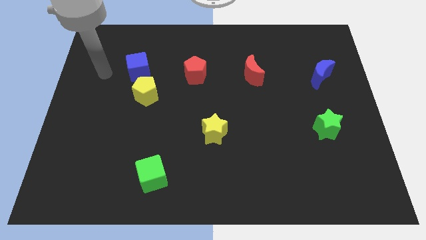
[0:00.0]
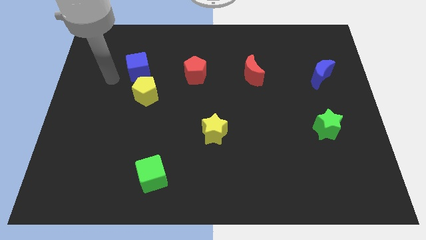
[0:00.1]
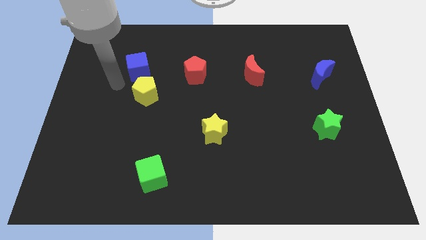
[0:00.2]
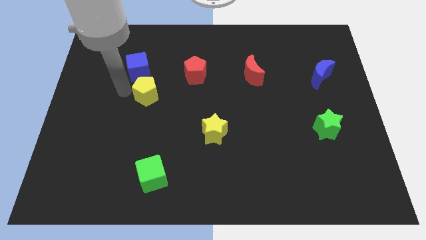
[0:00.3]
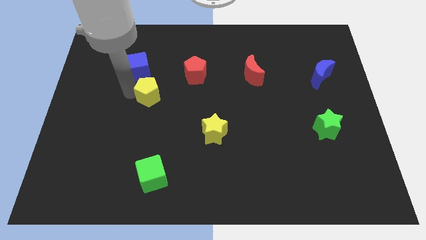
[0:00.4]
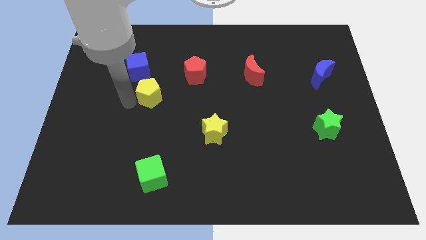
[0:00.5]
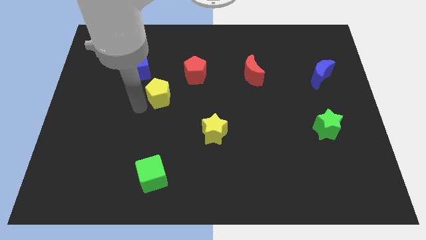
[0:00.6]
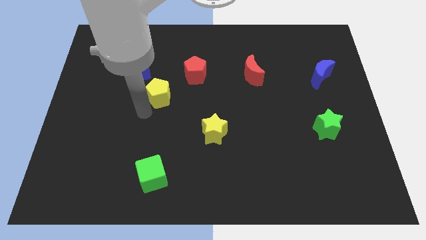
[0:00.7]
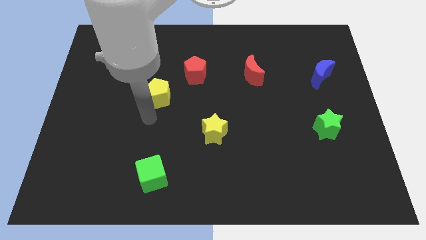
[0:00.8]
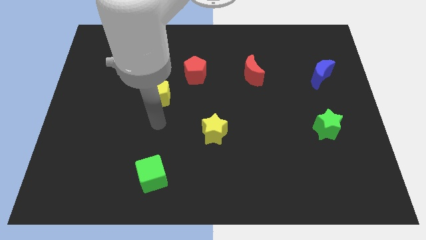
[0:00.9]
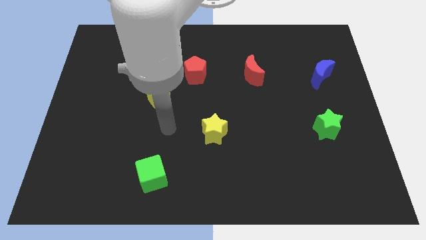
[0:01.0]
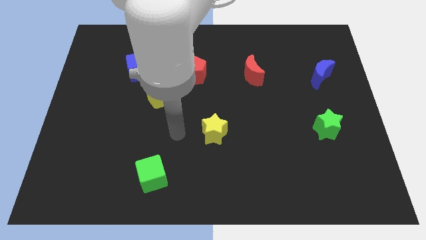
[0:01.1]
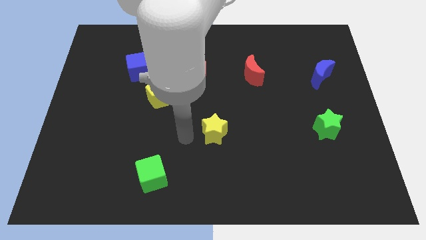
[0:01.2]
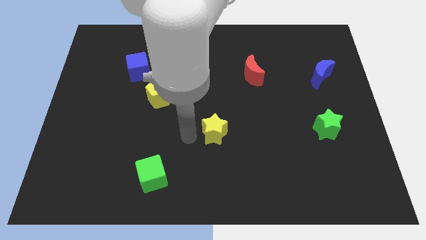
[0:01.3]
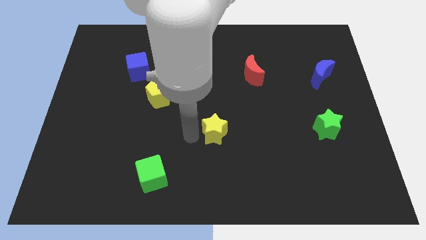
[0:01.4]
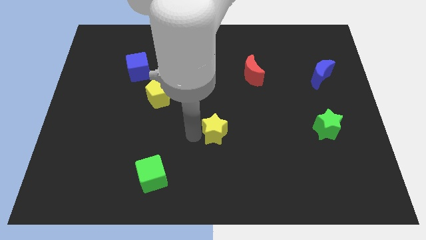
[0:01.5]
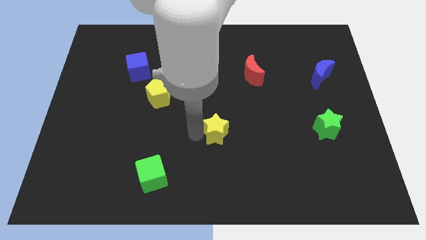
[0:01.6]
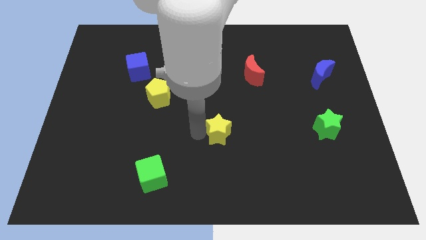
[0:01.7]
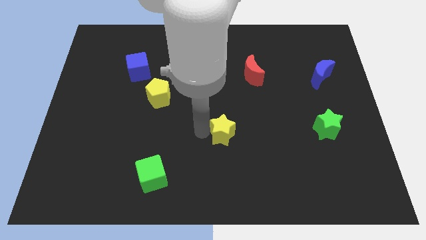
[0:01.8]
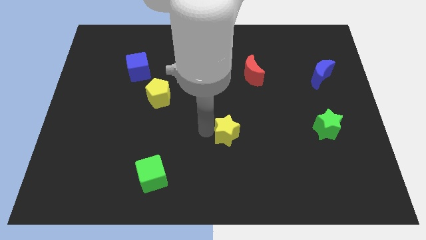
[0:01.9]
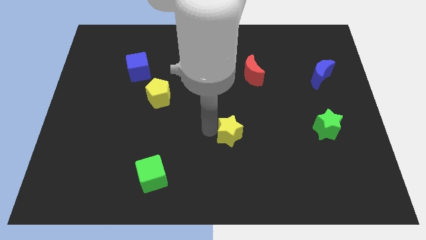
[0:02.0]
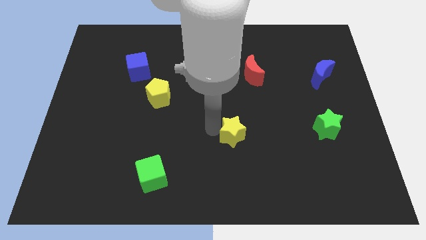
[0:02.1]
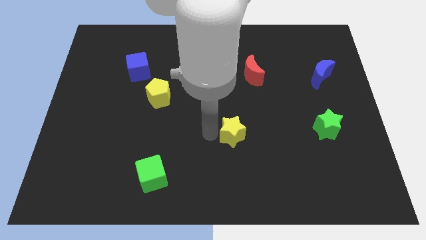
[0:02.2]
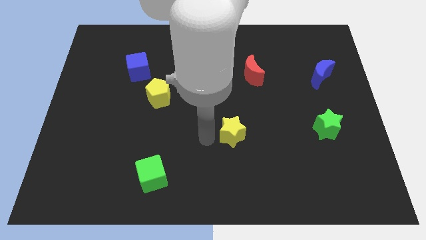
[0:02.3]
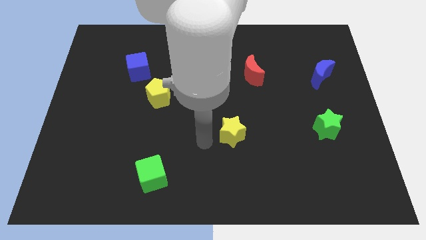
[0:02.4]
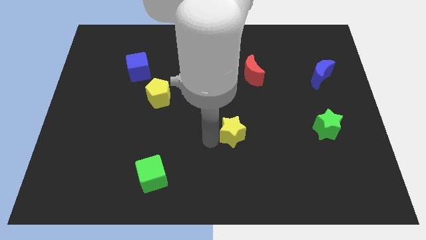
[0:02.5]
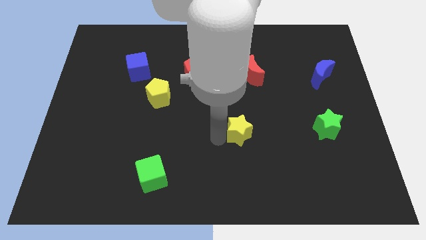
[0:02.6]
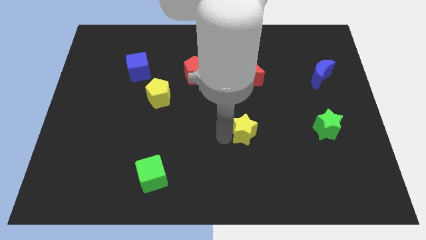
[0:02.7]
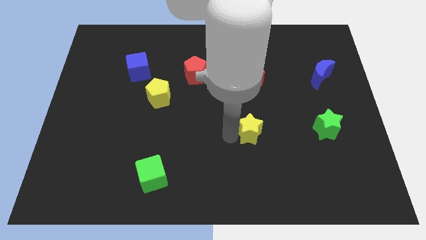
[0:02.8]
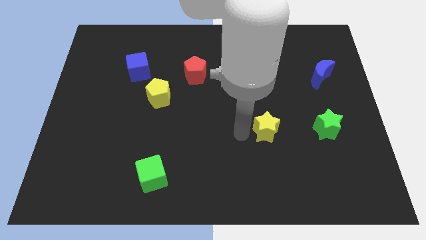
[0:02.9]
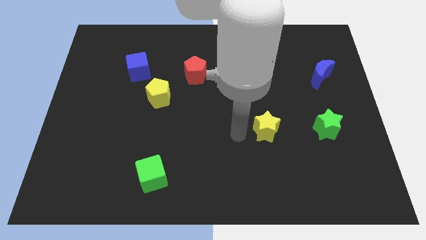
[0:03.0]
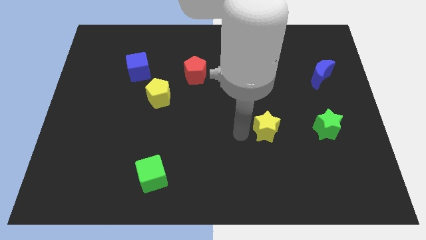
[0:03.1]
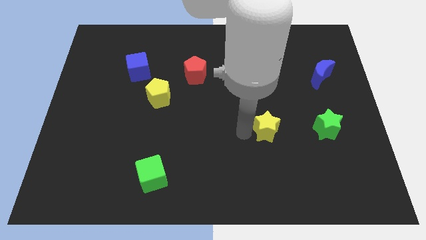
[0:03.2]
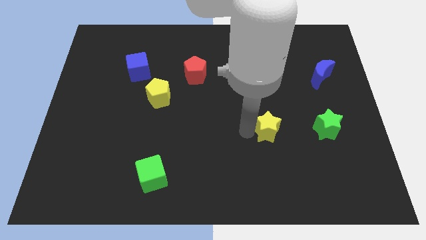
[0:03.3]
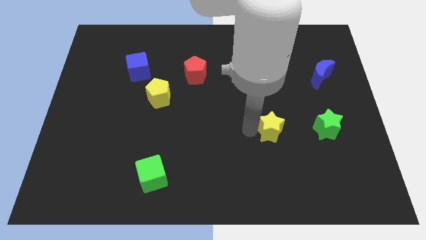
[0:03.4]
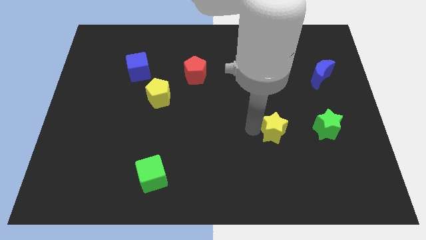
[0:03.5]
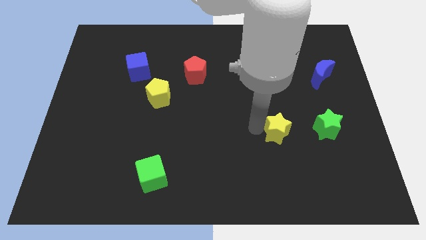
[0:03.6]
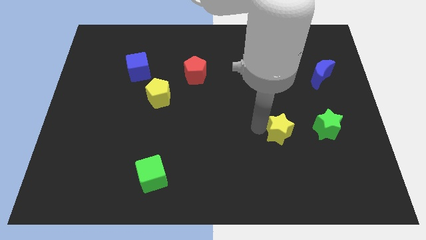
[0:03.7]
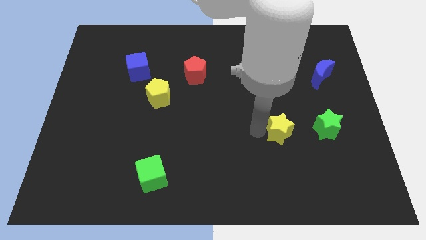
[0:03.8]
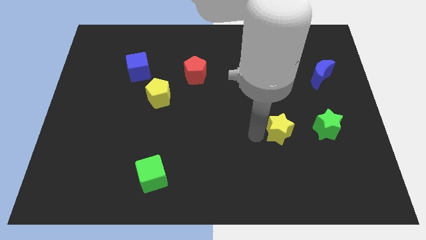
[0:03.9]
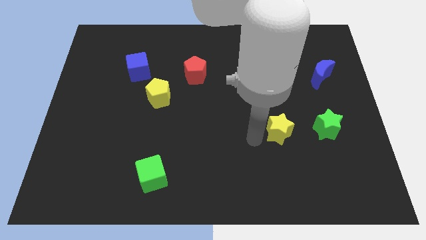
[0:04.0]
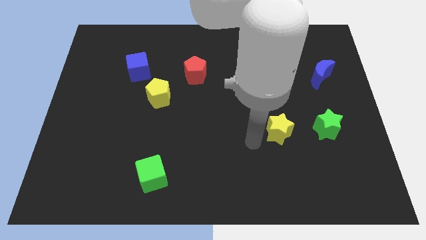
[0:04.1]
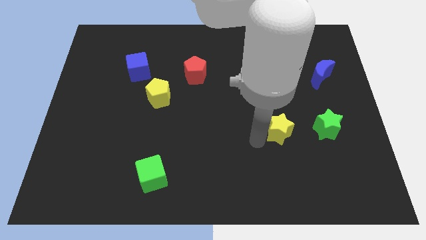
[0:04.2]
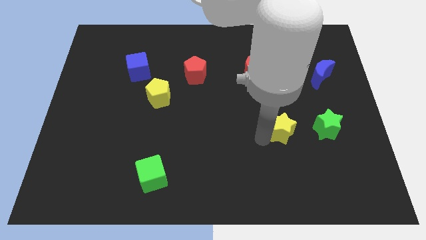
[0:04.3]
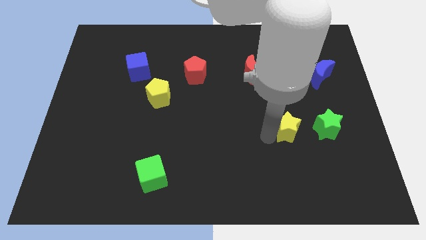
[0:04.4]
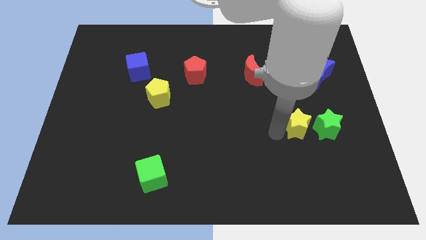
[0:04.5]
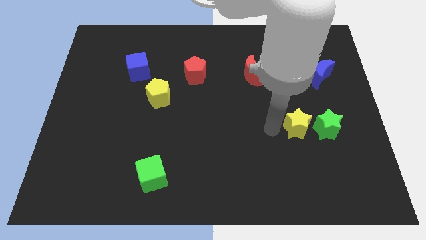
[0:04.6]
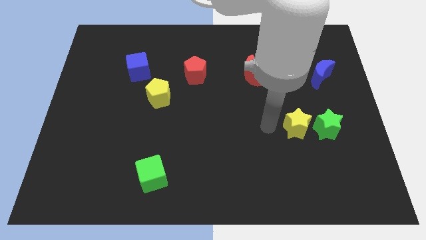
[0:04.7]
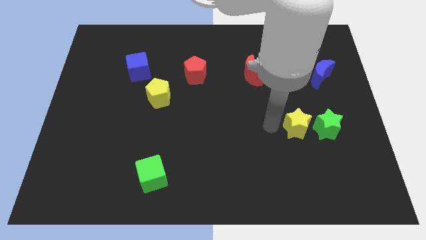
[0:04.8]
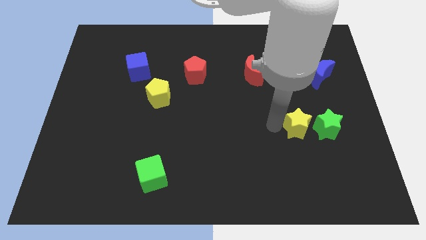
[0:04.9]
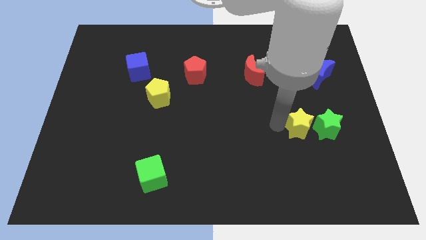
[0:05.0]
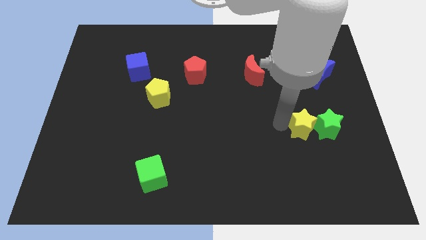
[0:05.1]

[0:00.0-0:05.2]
move the yellow star to the green star

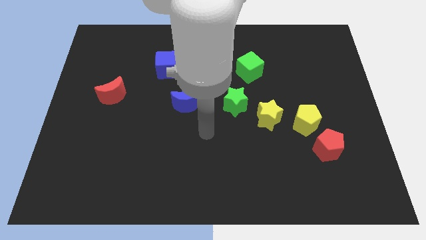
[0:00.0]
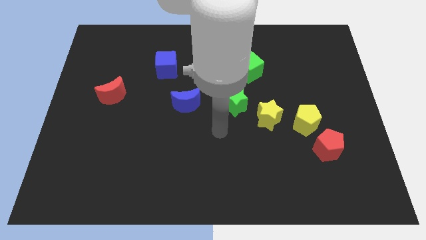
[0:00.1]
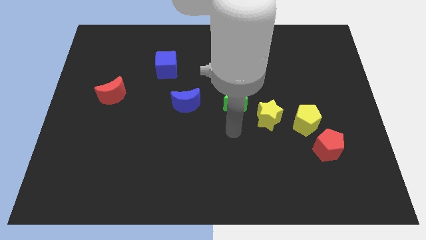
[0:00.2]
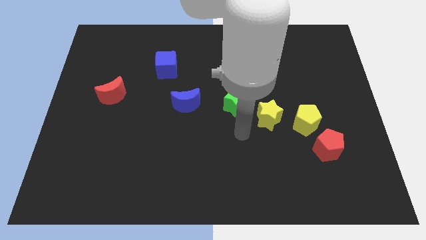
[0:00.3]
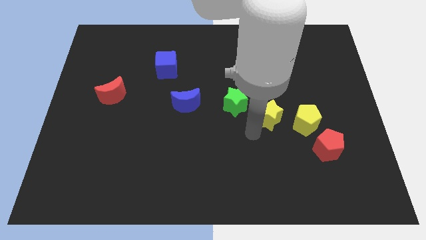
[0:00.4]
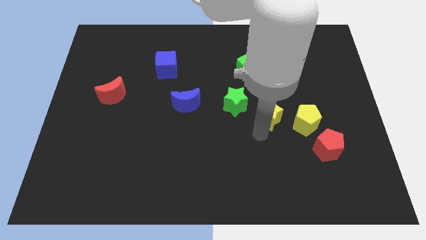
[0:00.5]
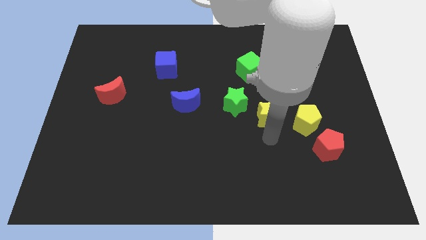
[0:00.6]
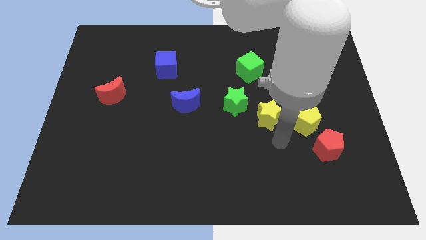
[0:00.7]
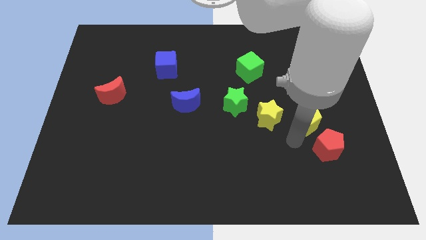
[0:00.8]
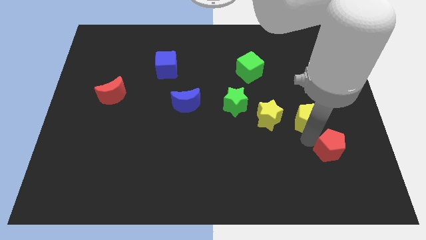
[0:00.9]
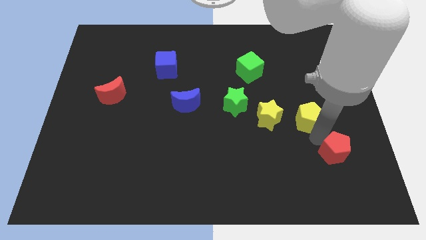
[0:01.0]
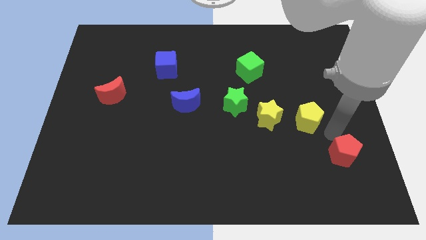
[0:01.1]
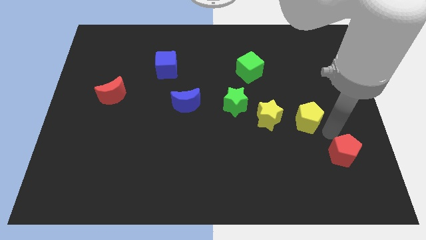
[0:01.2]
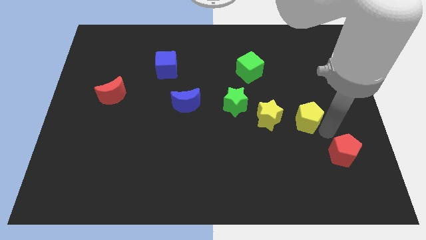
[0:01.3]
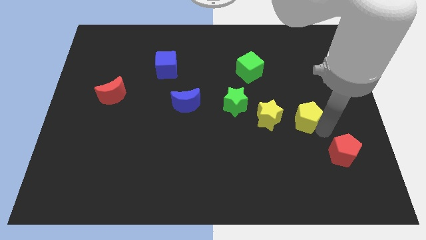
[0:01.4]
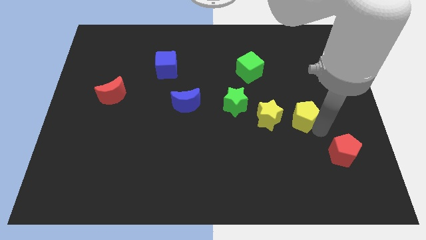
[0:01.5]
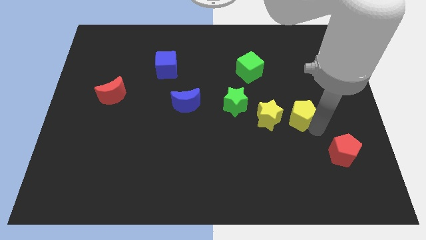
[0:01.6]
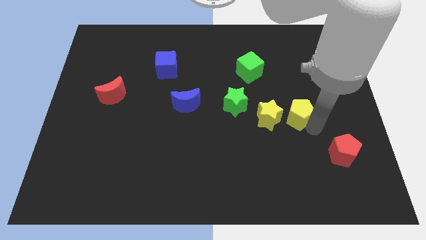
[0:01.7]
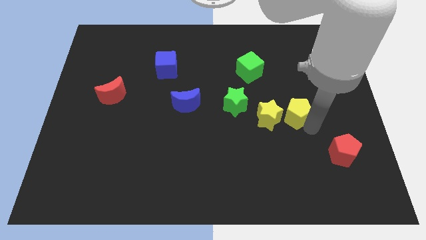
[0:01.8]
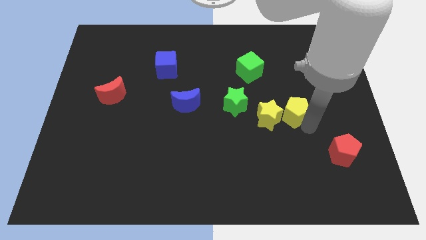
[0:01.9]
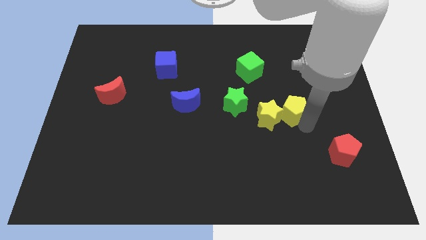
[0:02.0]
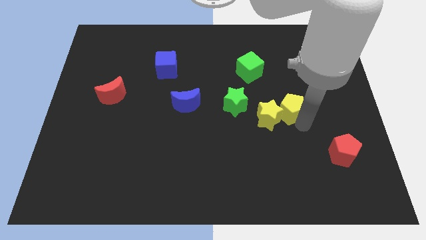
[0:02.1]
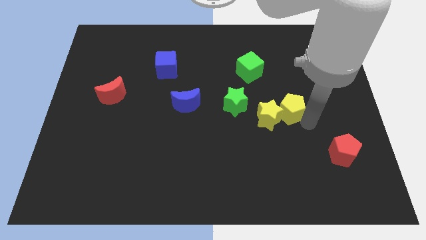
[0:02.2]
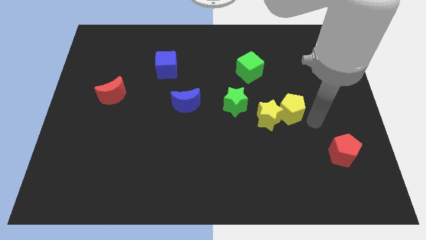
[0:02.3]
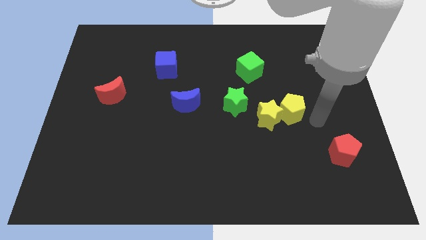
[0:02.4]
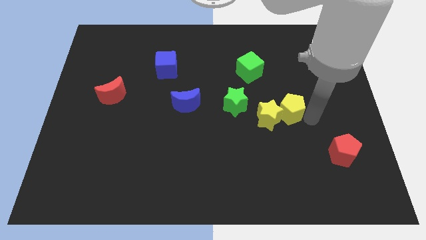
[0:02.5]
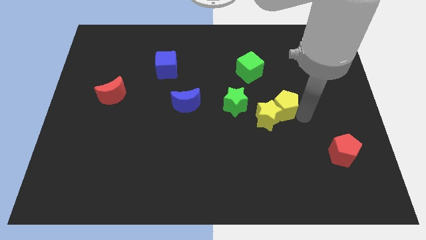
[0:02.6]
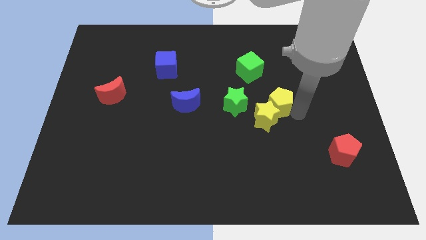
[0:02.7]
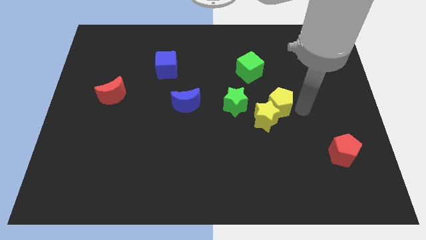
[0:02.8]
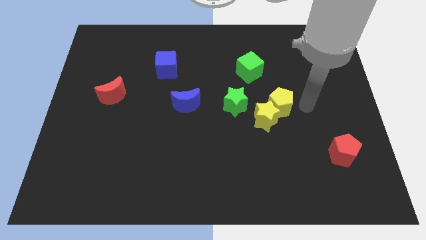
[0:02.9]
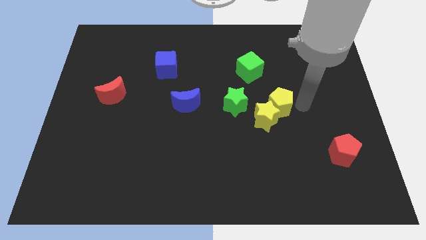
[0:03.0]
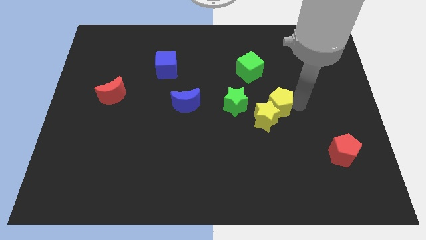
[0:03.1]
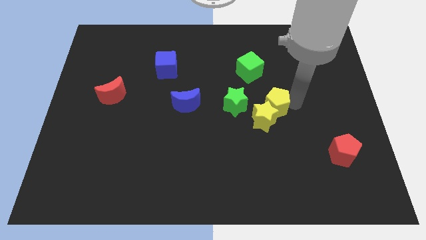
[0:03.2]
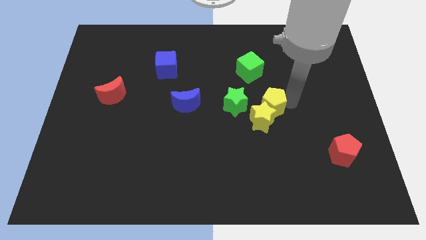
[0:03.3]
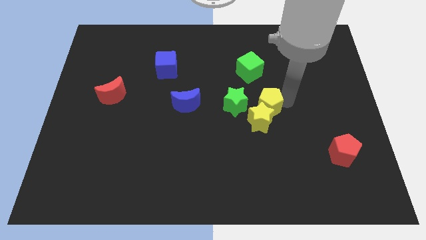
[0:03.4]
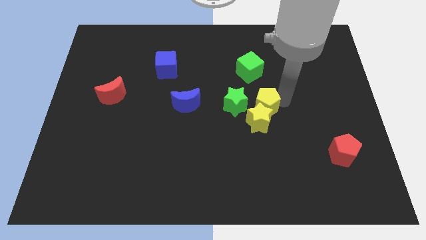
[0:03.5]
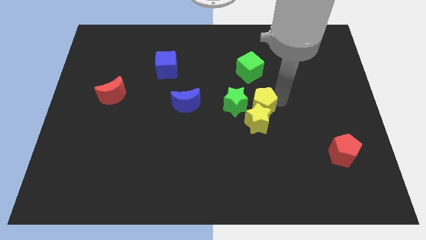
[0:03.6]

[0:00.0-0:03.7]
put the yellow pentagon towards the green star
